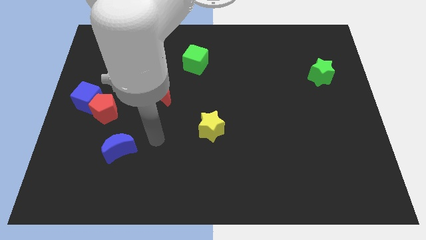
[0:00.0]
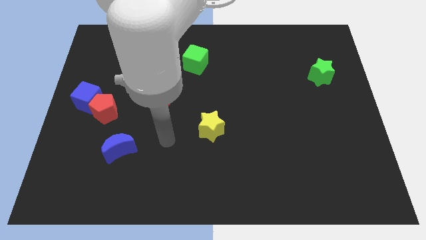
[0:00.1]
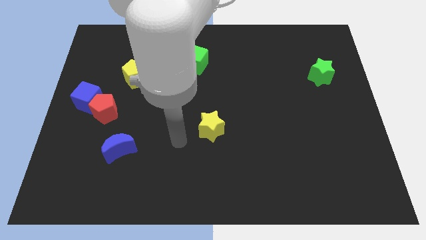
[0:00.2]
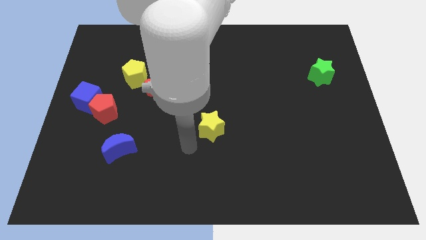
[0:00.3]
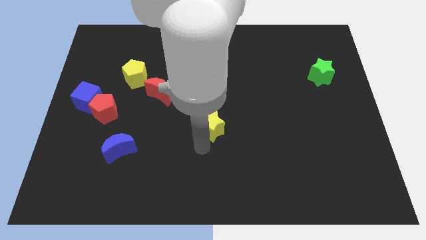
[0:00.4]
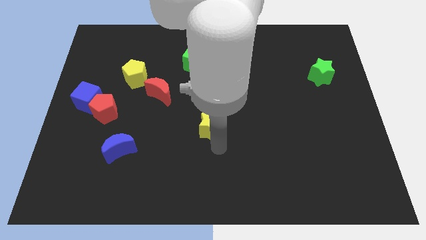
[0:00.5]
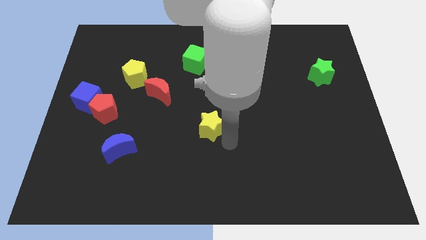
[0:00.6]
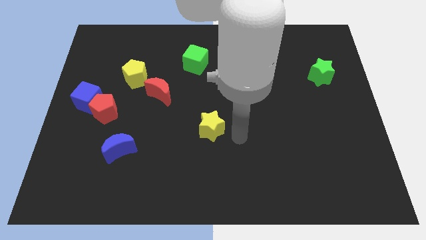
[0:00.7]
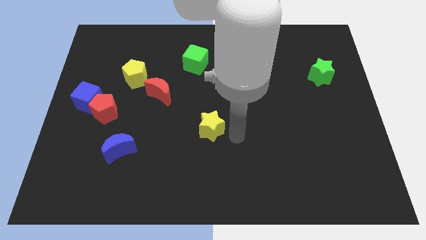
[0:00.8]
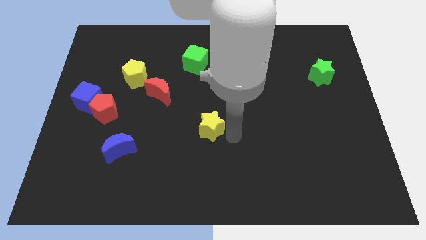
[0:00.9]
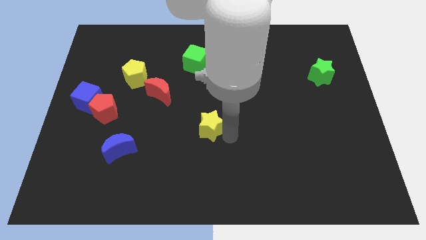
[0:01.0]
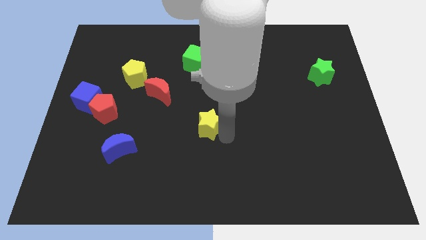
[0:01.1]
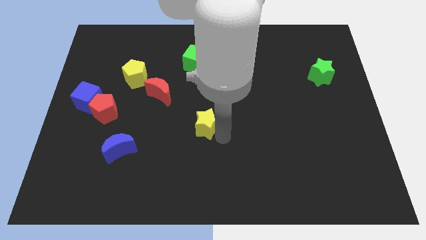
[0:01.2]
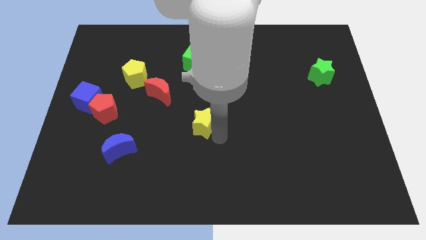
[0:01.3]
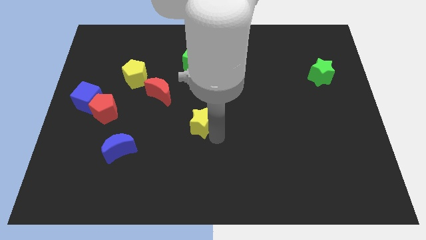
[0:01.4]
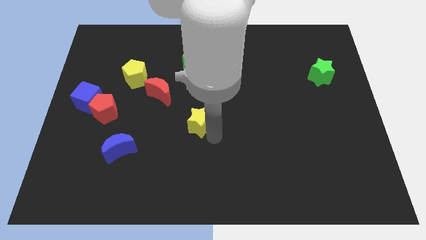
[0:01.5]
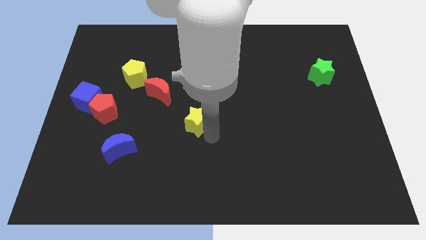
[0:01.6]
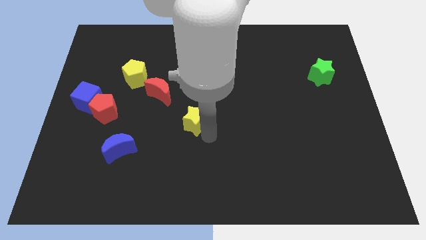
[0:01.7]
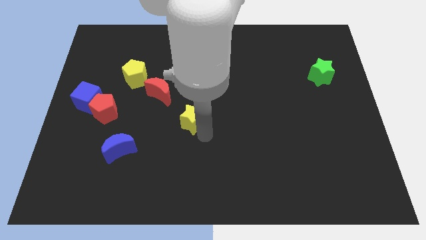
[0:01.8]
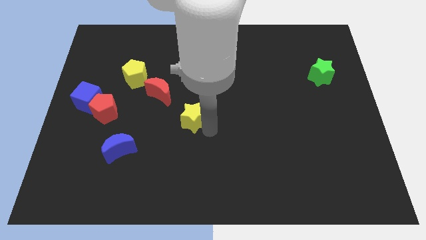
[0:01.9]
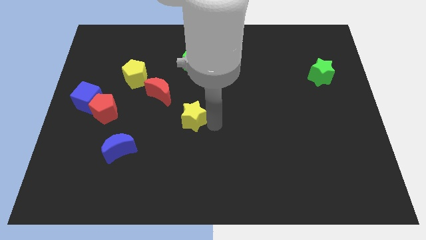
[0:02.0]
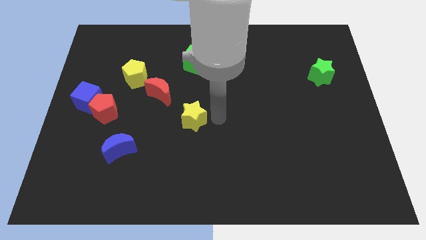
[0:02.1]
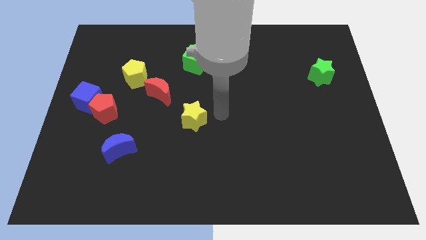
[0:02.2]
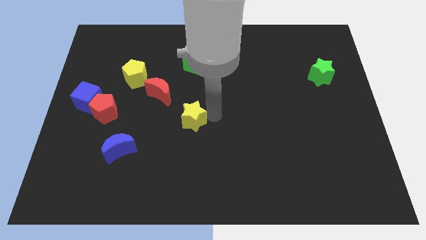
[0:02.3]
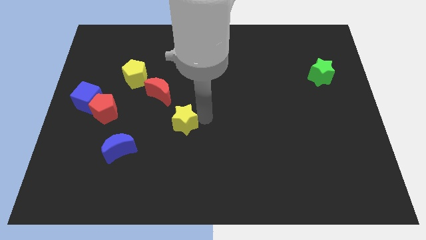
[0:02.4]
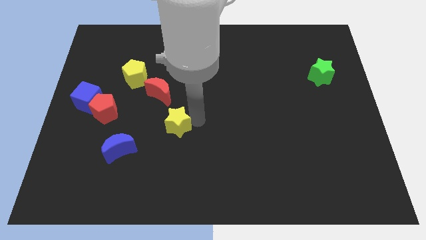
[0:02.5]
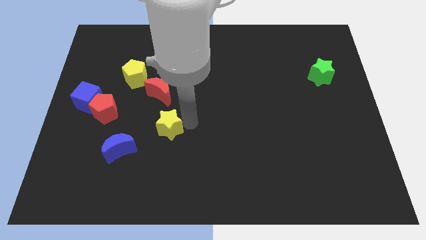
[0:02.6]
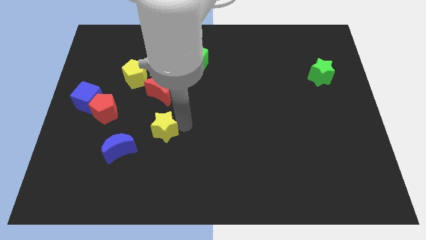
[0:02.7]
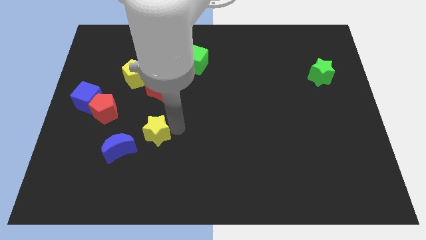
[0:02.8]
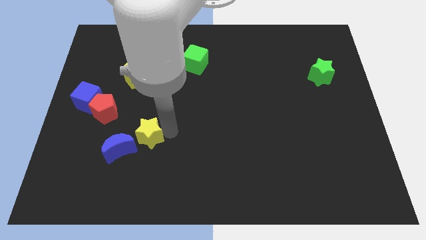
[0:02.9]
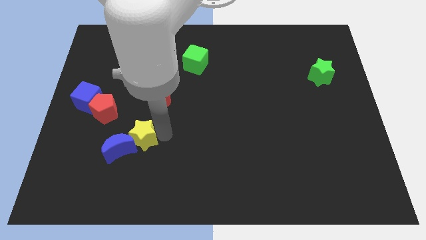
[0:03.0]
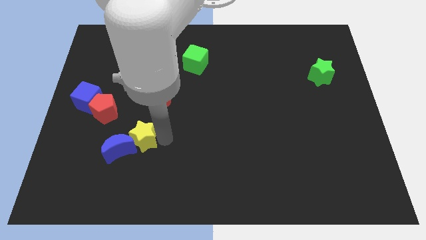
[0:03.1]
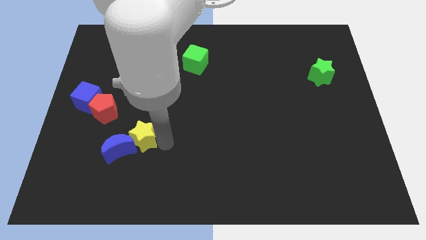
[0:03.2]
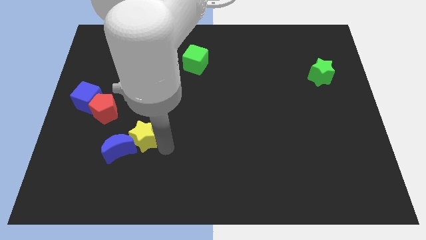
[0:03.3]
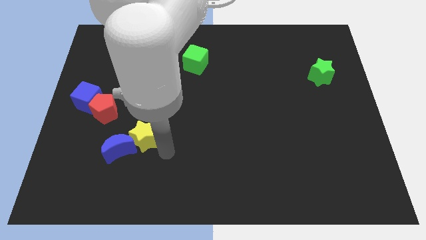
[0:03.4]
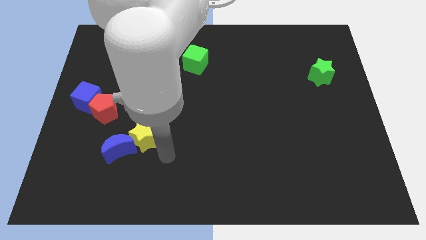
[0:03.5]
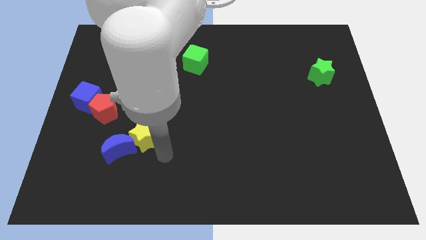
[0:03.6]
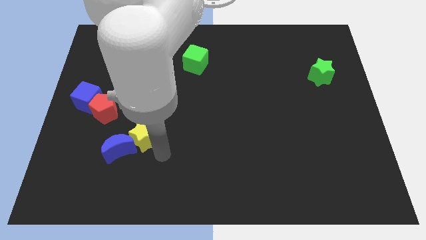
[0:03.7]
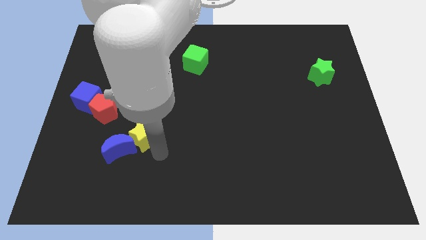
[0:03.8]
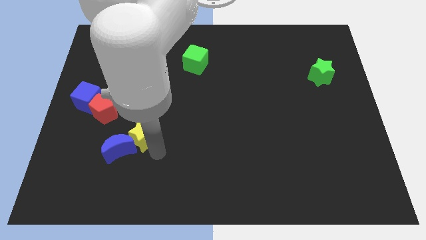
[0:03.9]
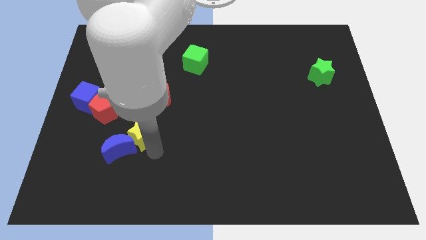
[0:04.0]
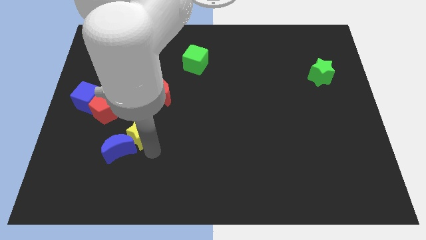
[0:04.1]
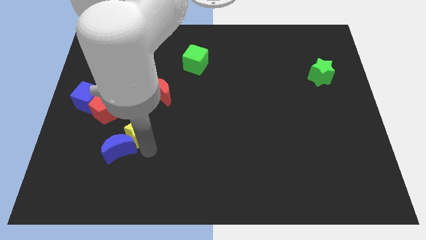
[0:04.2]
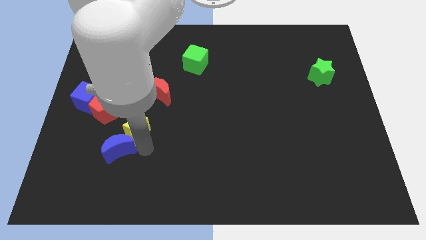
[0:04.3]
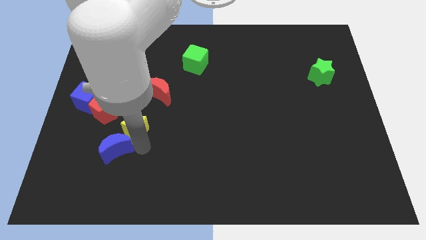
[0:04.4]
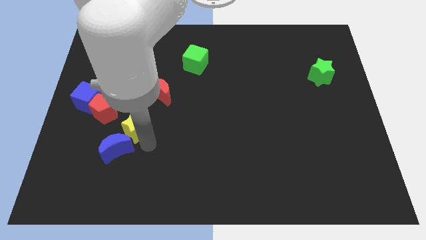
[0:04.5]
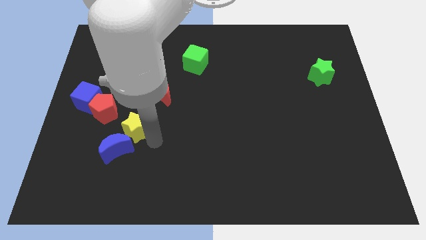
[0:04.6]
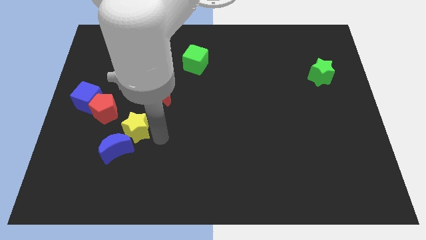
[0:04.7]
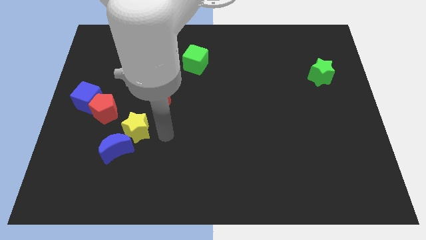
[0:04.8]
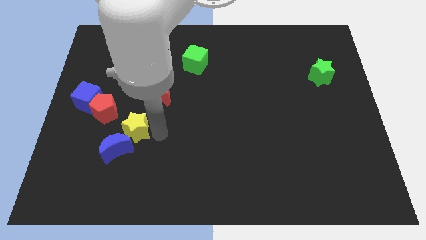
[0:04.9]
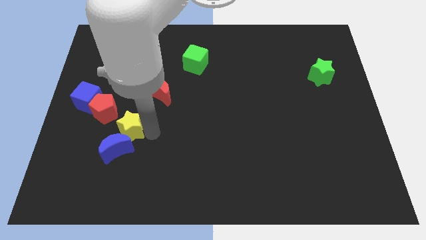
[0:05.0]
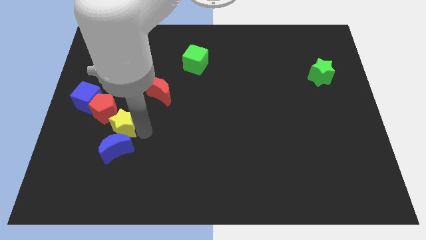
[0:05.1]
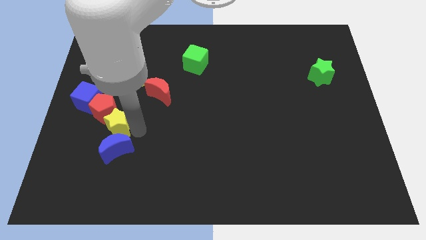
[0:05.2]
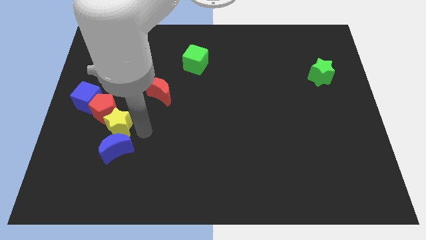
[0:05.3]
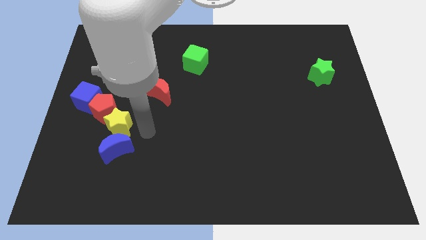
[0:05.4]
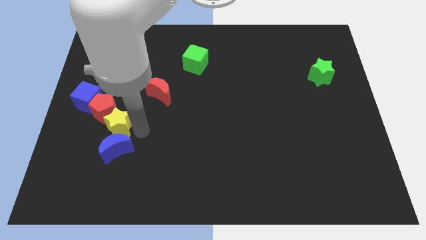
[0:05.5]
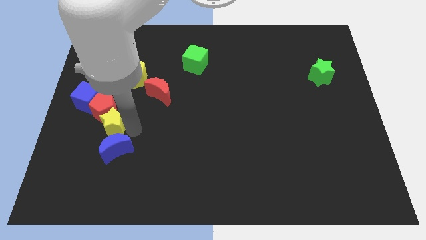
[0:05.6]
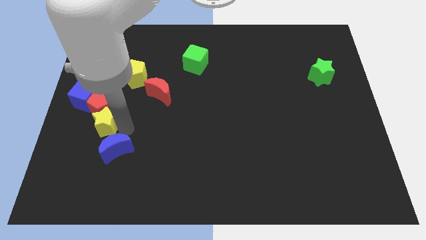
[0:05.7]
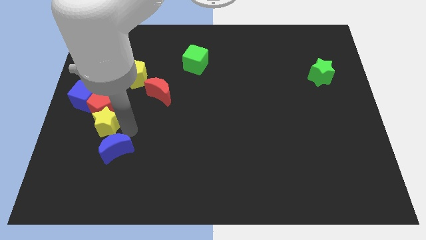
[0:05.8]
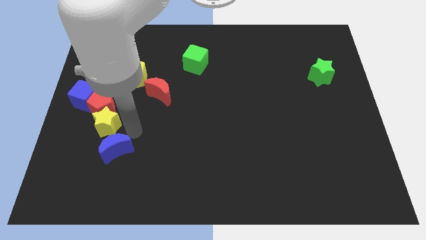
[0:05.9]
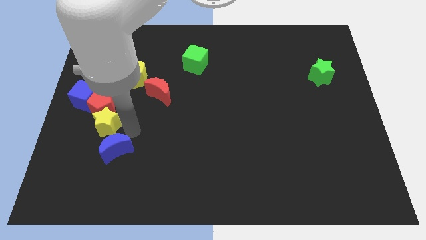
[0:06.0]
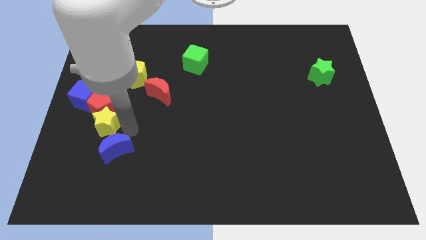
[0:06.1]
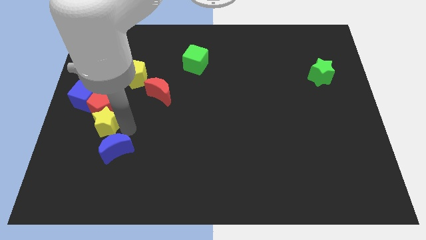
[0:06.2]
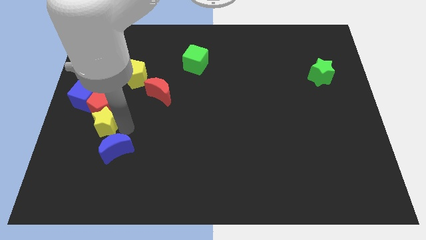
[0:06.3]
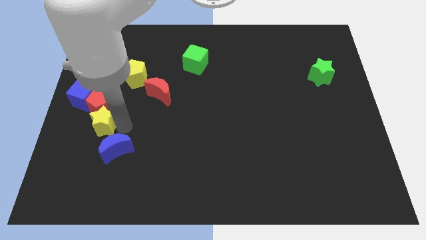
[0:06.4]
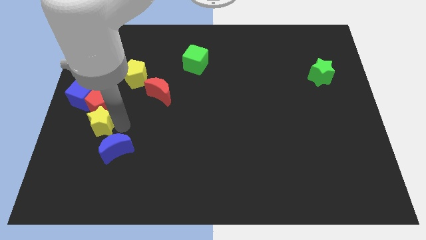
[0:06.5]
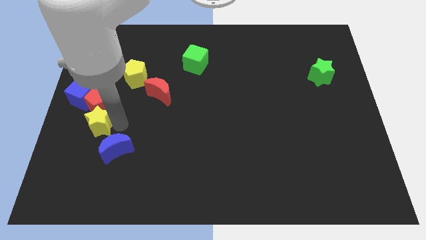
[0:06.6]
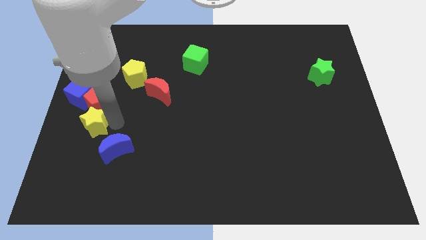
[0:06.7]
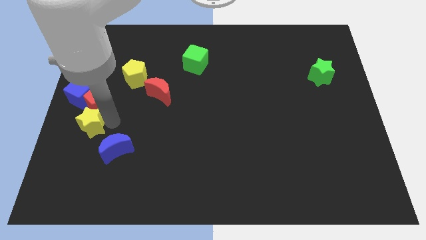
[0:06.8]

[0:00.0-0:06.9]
move the yellow star to the left side
